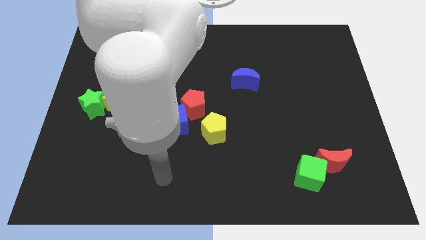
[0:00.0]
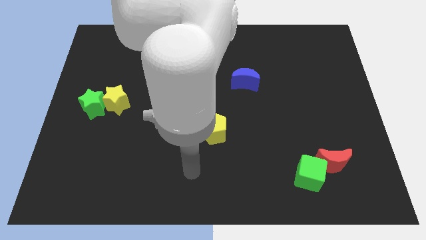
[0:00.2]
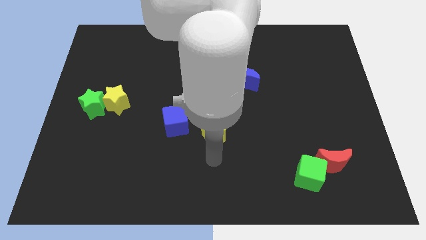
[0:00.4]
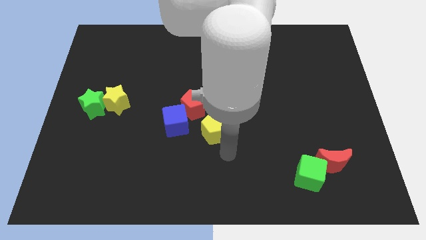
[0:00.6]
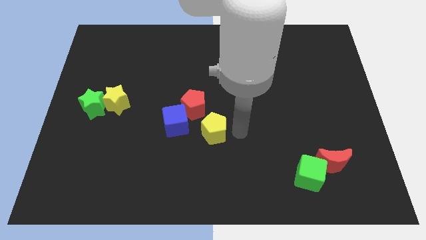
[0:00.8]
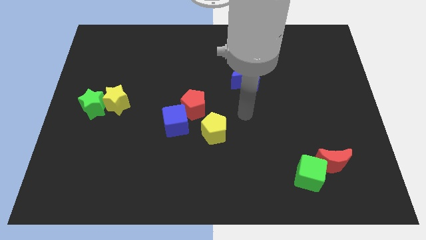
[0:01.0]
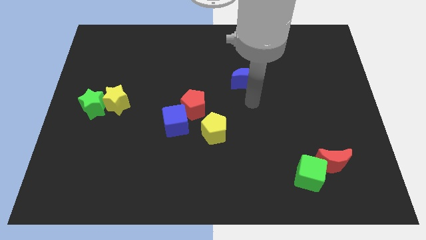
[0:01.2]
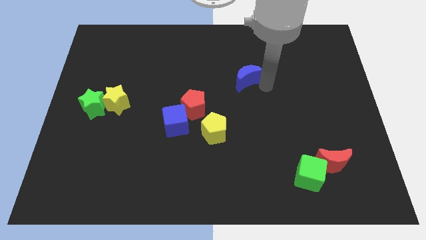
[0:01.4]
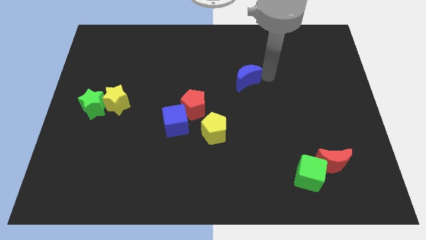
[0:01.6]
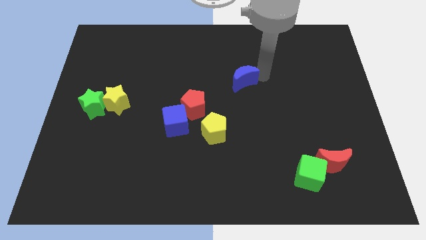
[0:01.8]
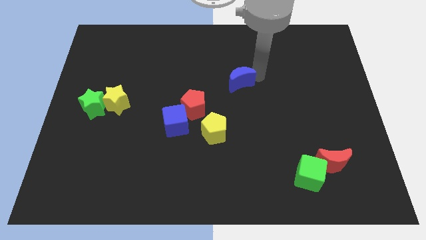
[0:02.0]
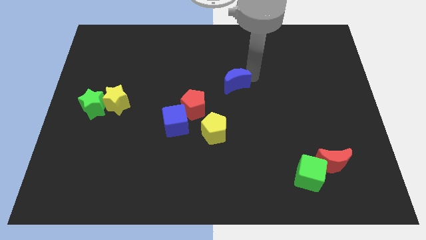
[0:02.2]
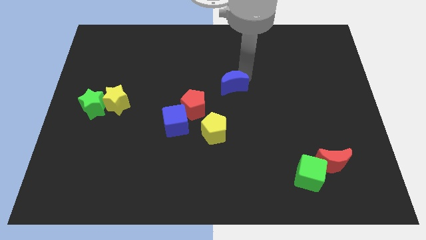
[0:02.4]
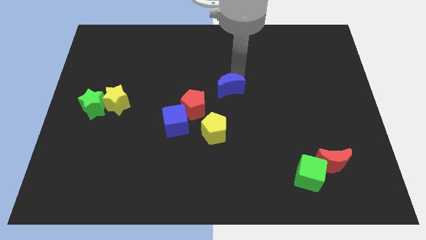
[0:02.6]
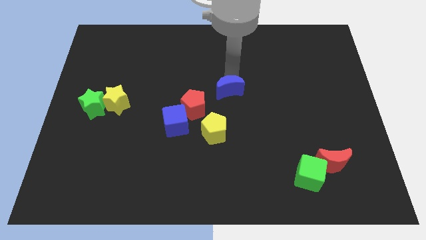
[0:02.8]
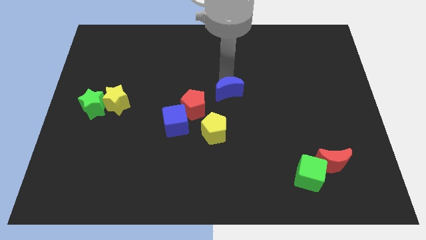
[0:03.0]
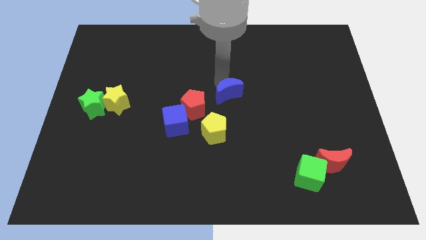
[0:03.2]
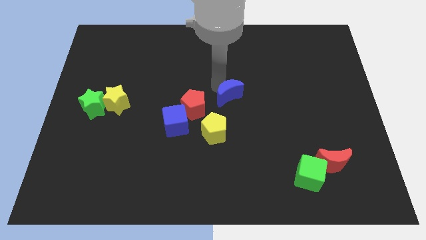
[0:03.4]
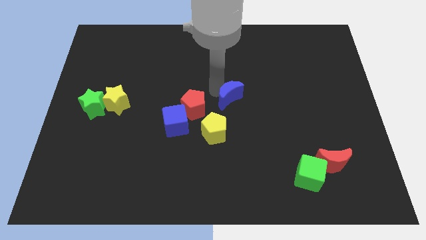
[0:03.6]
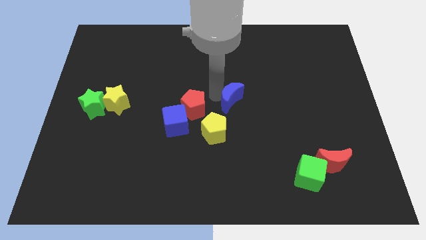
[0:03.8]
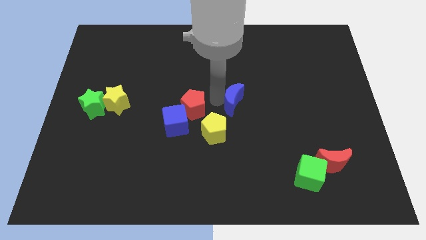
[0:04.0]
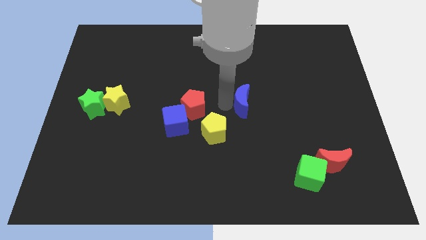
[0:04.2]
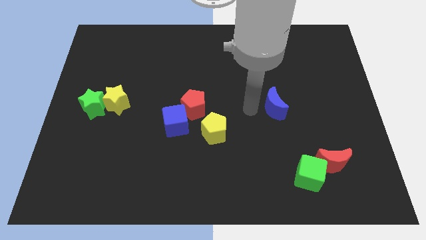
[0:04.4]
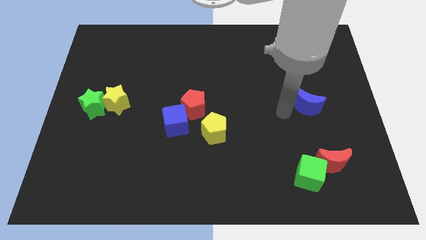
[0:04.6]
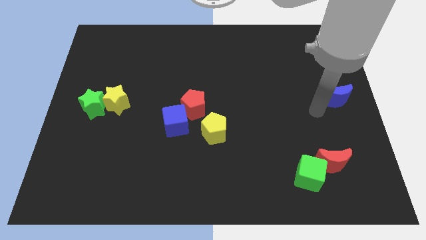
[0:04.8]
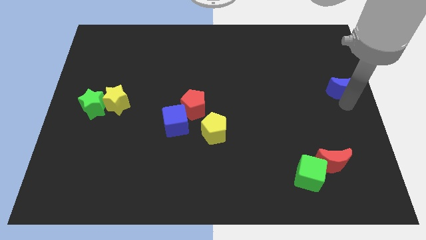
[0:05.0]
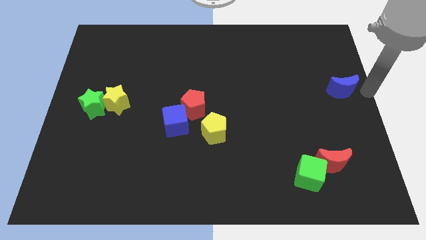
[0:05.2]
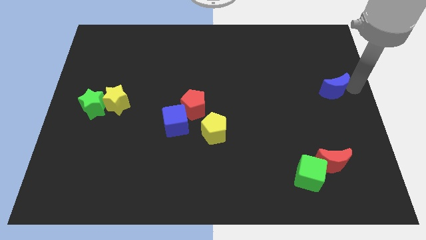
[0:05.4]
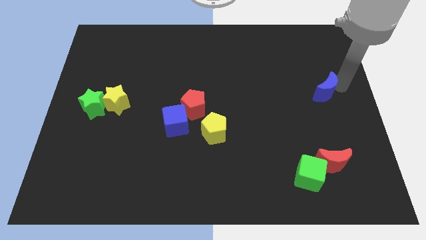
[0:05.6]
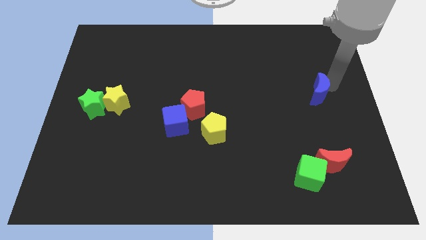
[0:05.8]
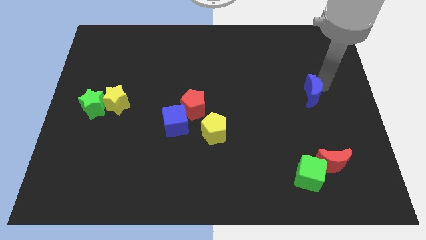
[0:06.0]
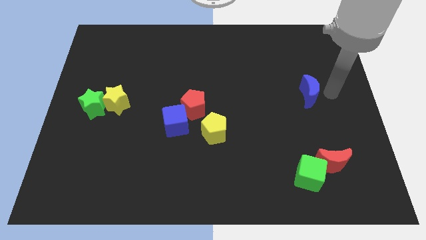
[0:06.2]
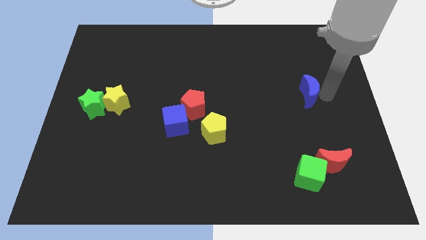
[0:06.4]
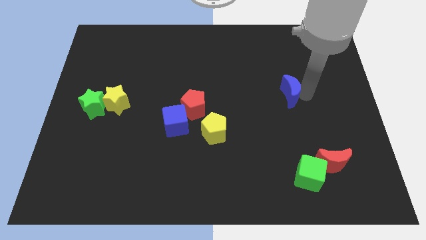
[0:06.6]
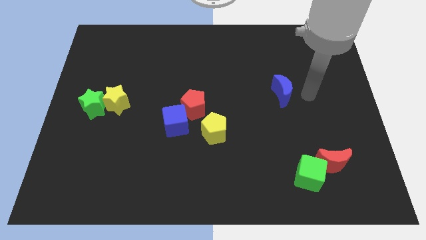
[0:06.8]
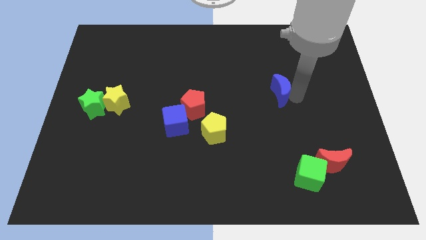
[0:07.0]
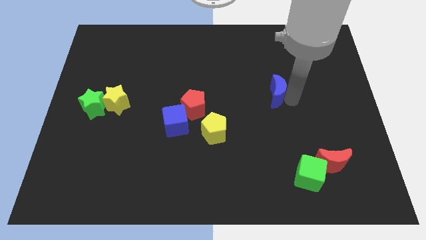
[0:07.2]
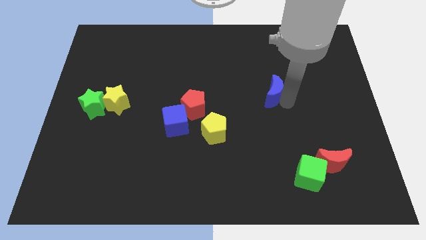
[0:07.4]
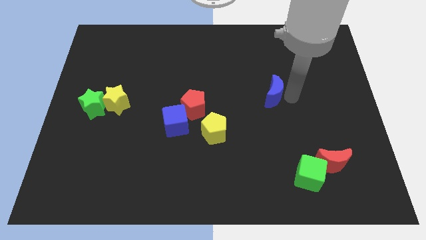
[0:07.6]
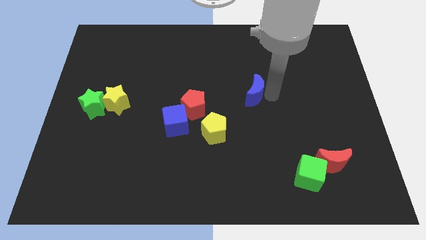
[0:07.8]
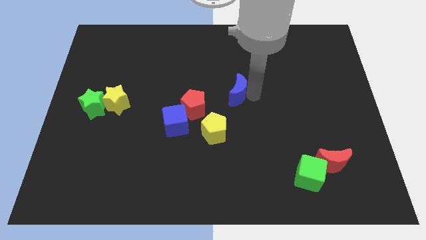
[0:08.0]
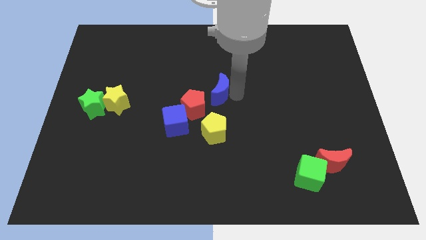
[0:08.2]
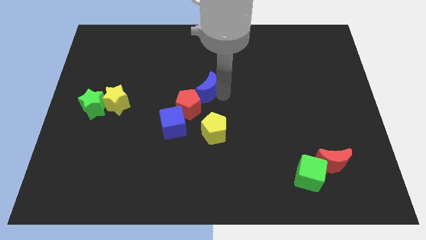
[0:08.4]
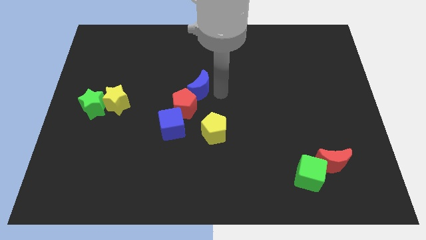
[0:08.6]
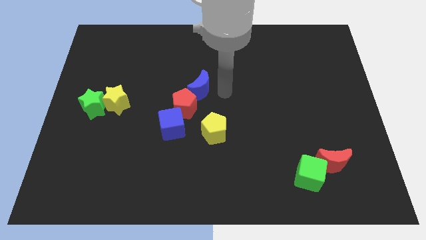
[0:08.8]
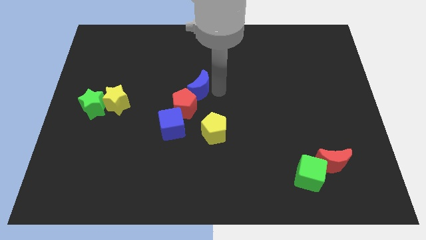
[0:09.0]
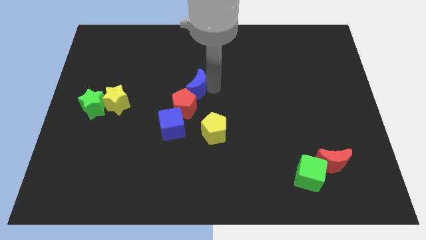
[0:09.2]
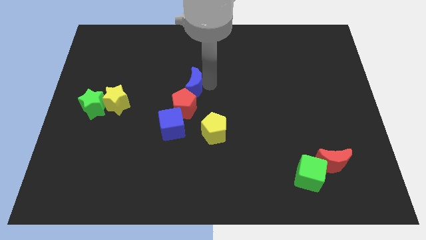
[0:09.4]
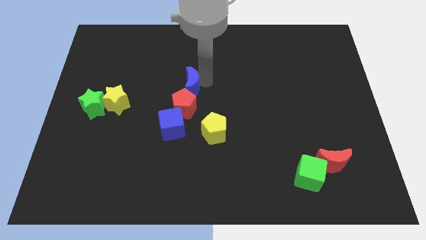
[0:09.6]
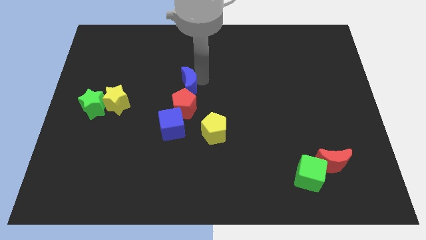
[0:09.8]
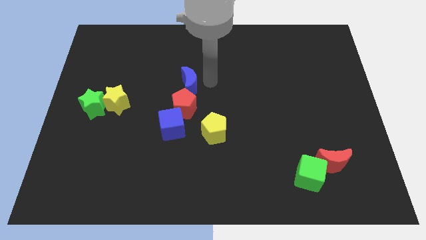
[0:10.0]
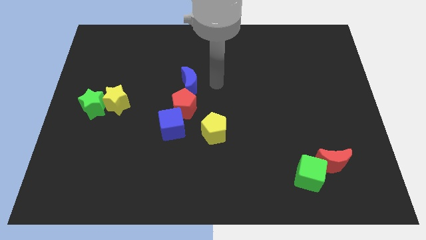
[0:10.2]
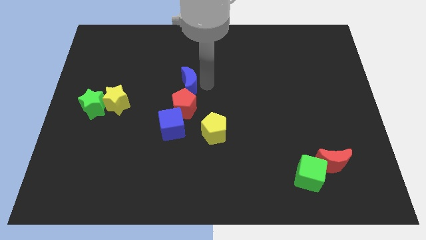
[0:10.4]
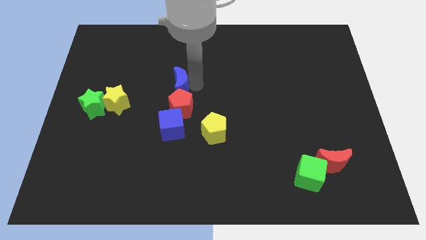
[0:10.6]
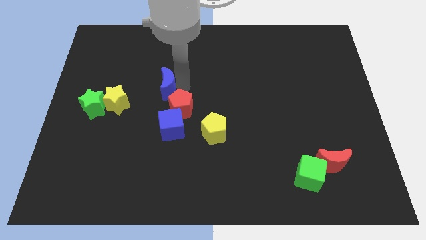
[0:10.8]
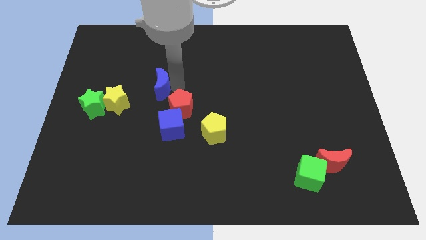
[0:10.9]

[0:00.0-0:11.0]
move the blue moon left

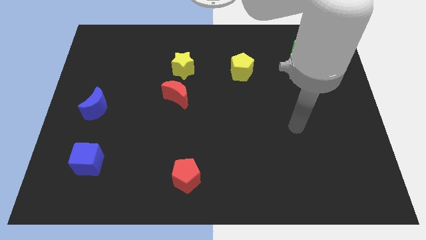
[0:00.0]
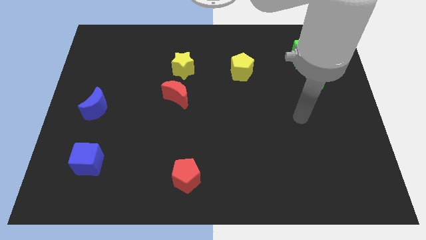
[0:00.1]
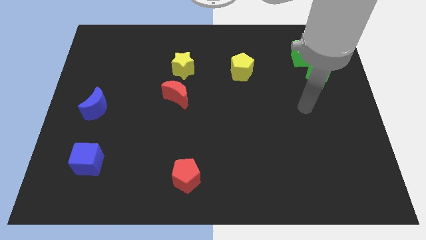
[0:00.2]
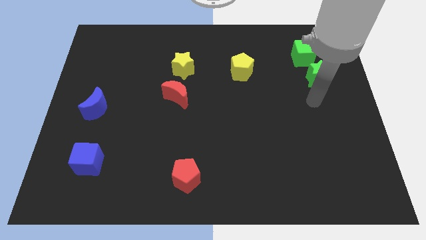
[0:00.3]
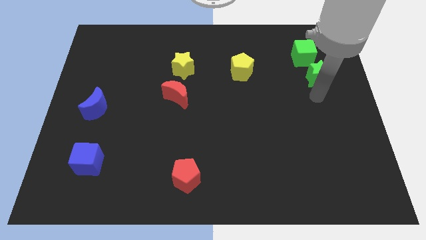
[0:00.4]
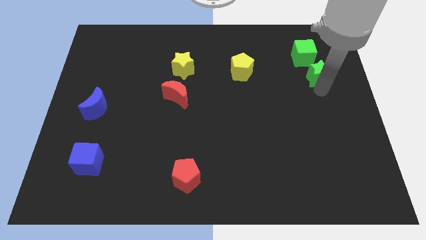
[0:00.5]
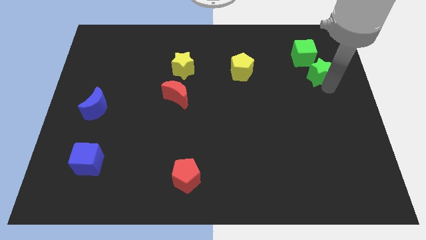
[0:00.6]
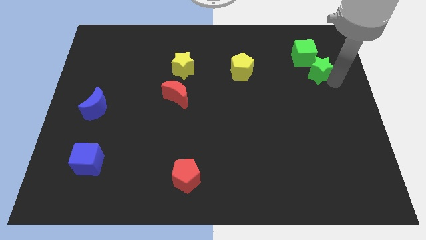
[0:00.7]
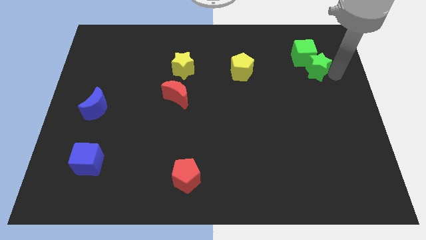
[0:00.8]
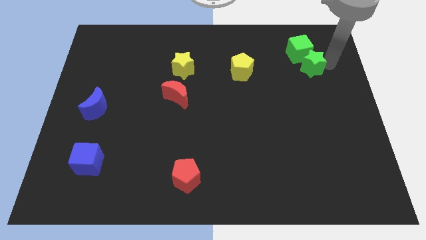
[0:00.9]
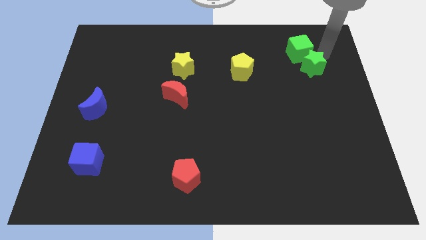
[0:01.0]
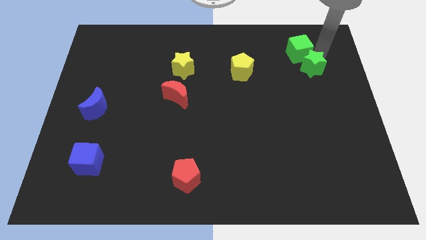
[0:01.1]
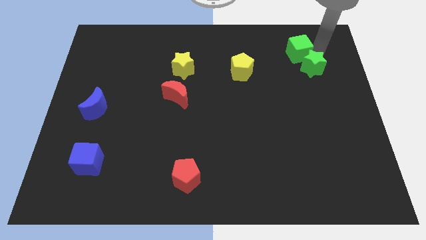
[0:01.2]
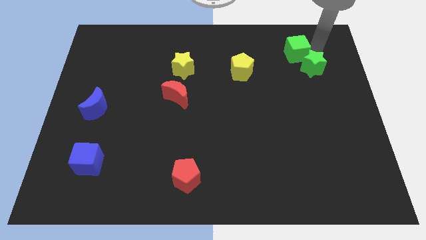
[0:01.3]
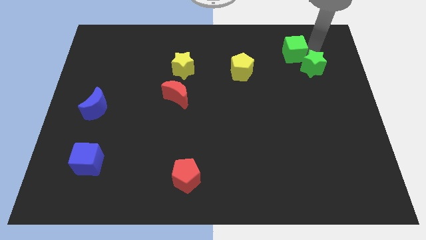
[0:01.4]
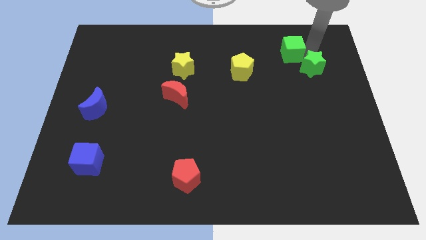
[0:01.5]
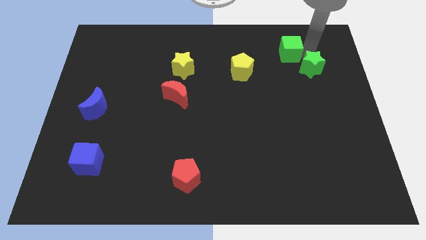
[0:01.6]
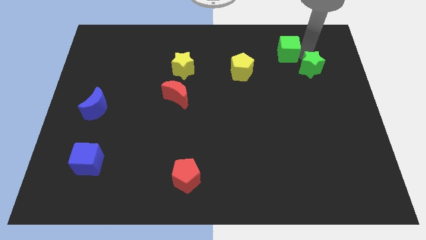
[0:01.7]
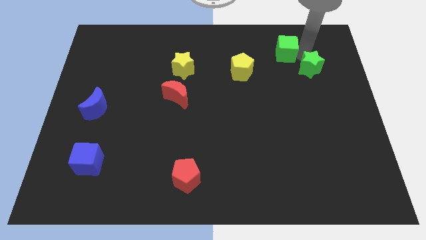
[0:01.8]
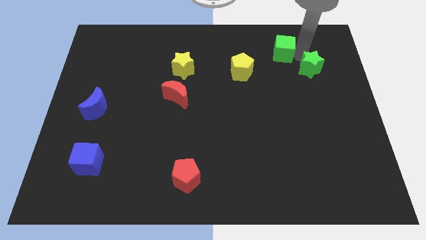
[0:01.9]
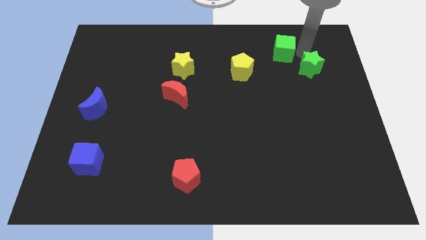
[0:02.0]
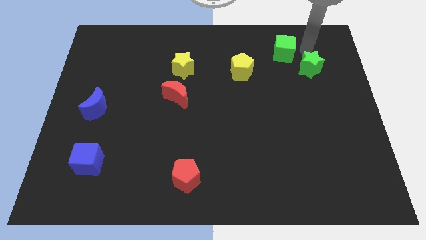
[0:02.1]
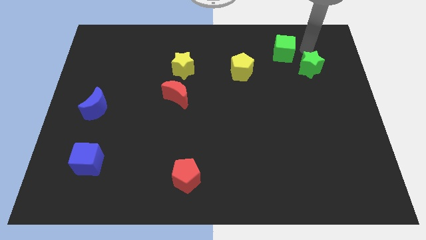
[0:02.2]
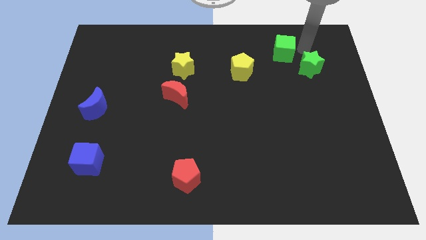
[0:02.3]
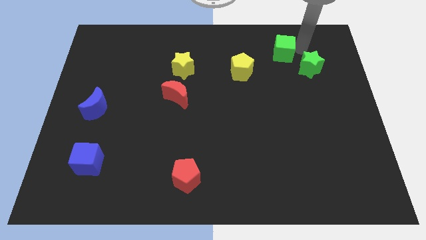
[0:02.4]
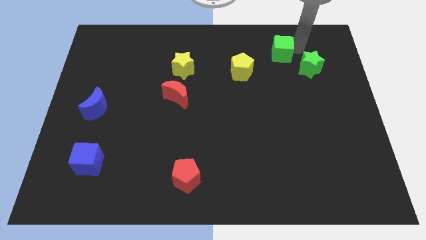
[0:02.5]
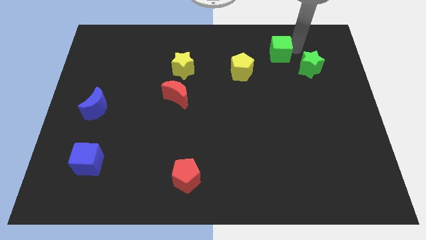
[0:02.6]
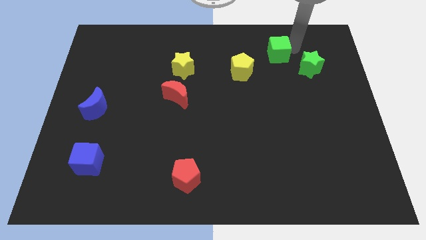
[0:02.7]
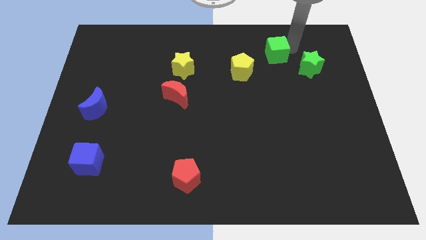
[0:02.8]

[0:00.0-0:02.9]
push the green cube to the left a little
